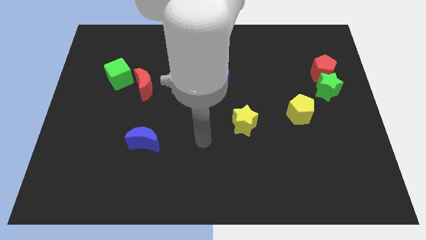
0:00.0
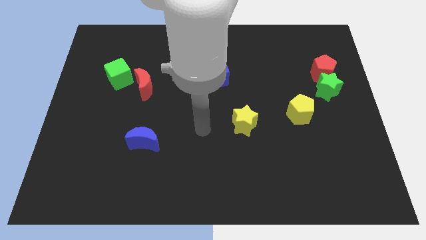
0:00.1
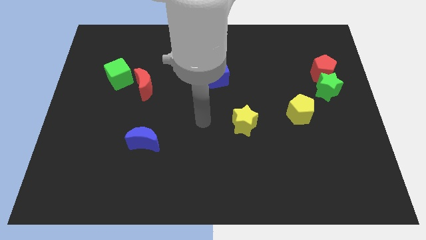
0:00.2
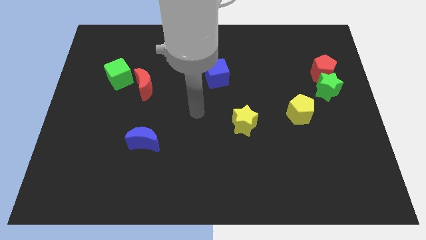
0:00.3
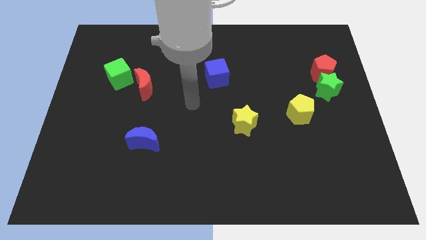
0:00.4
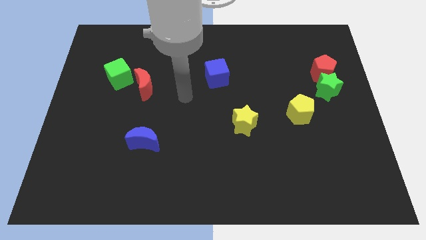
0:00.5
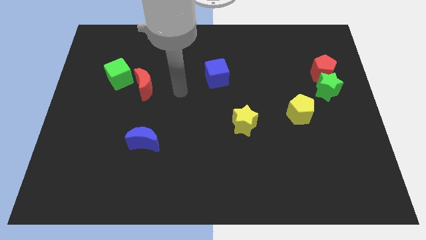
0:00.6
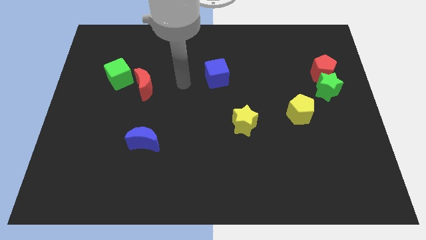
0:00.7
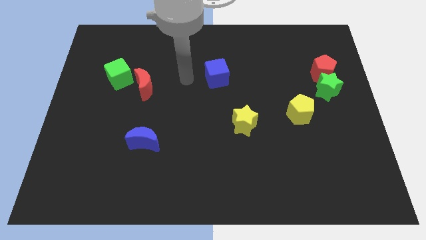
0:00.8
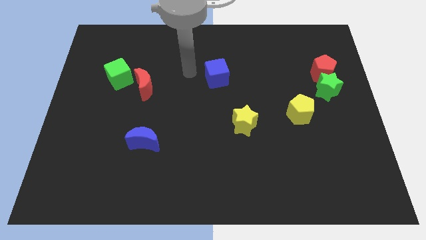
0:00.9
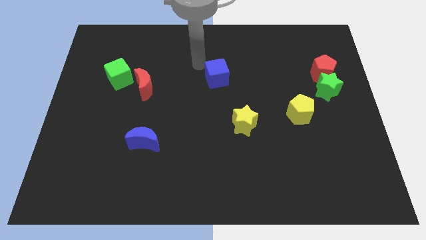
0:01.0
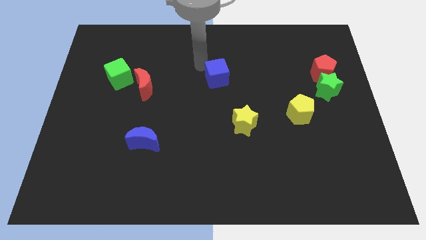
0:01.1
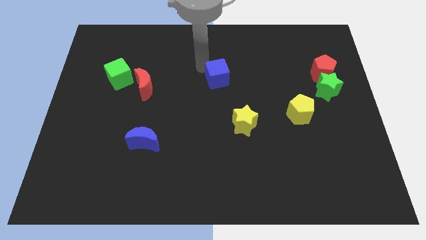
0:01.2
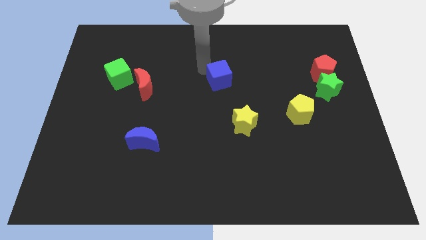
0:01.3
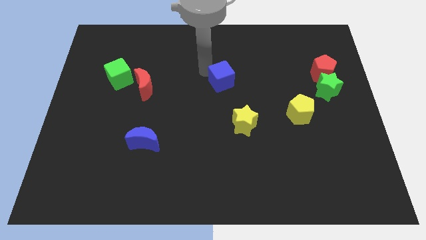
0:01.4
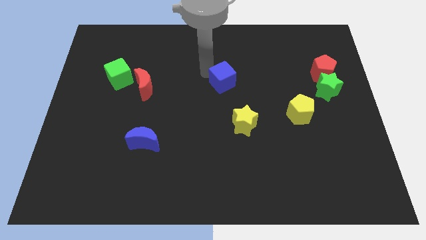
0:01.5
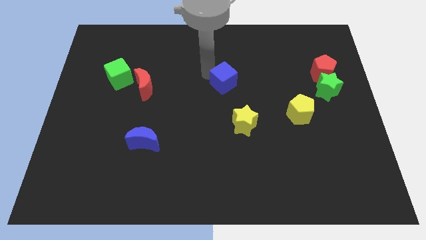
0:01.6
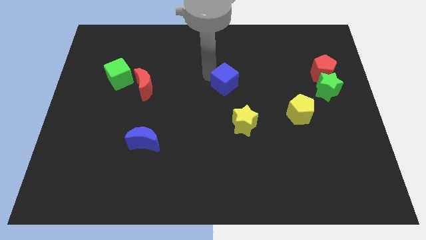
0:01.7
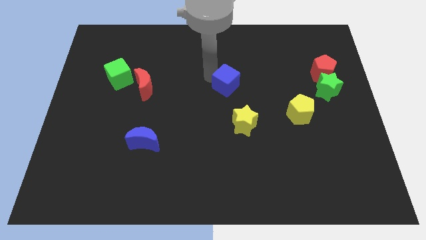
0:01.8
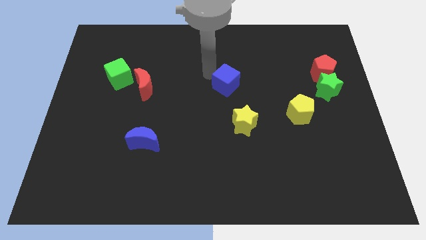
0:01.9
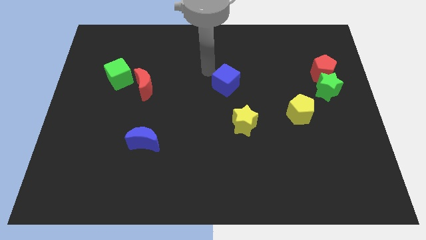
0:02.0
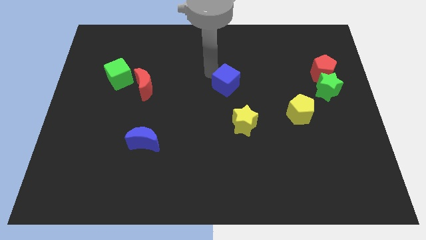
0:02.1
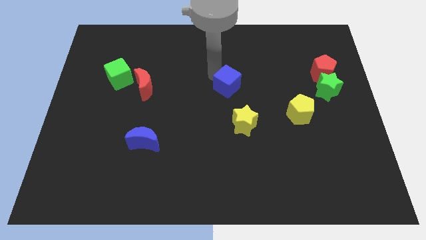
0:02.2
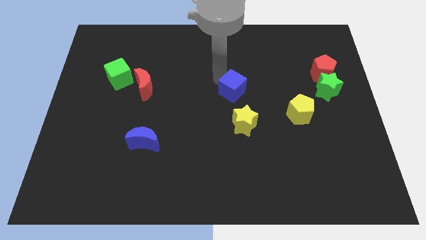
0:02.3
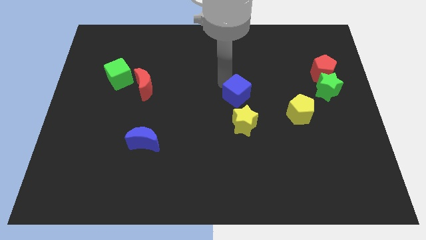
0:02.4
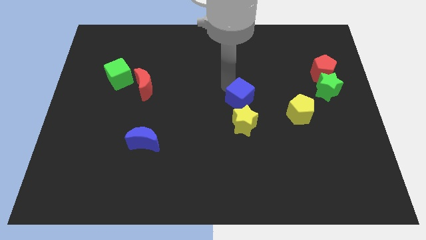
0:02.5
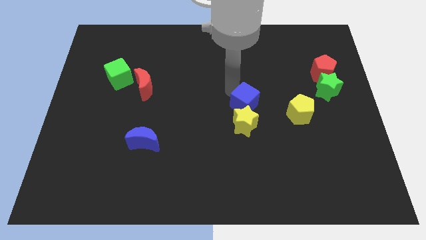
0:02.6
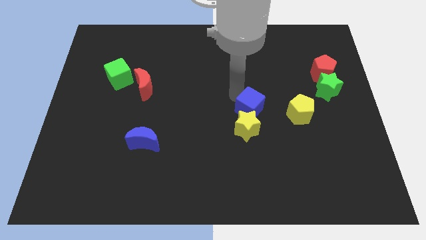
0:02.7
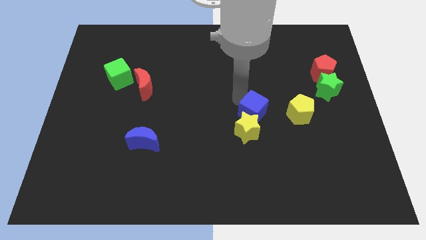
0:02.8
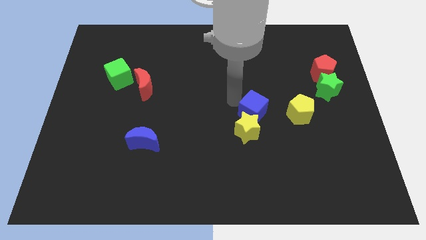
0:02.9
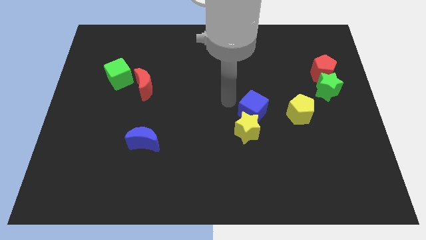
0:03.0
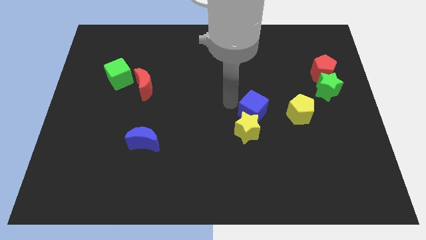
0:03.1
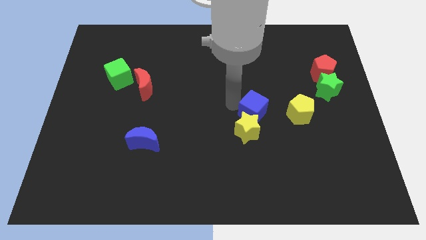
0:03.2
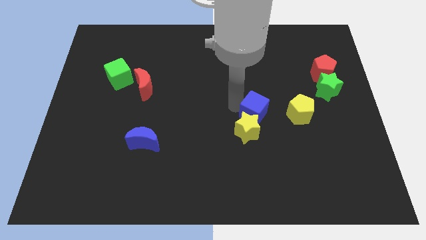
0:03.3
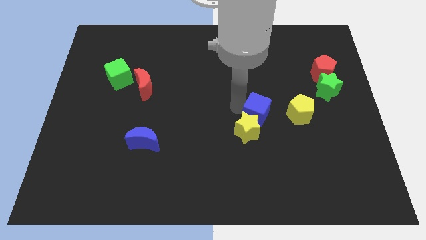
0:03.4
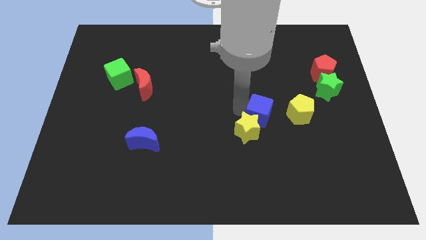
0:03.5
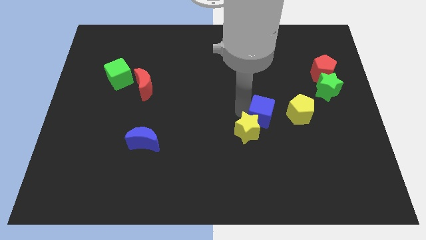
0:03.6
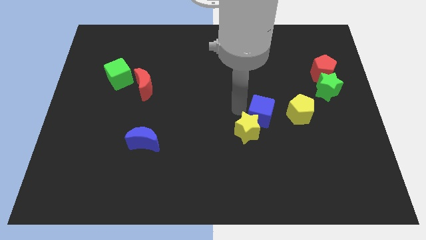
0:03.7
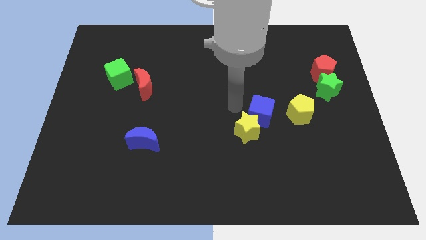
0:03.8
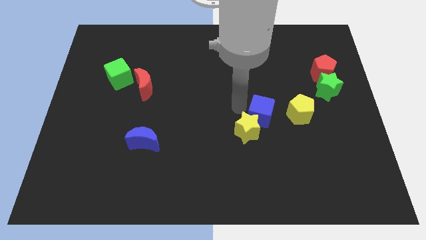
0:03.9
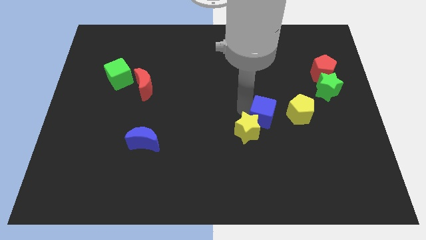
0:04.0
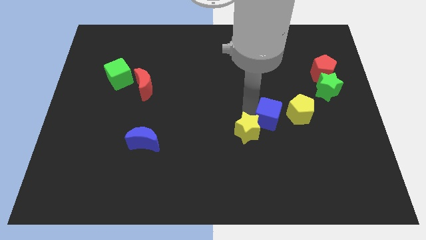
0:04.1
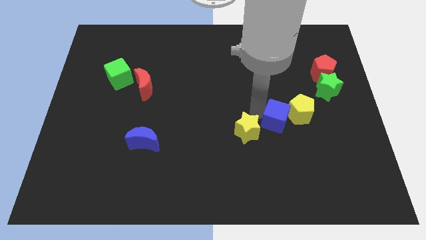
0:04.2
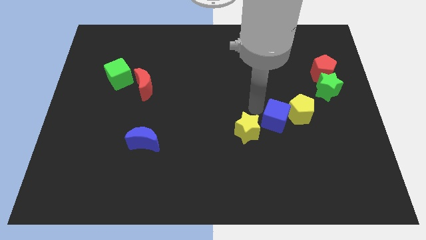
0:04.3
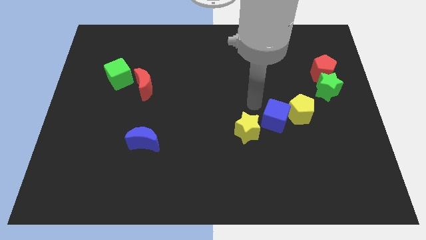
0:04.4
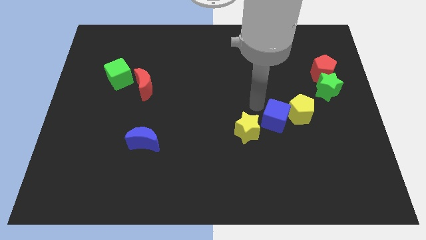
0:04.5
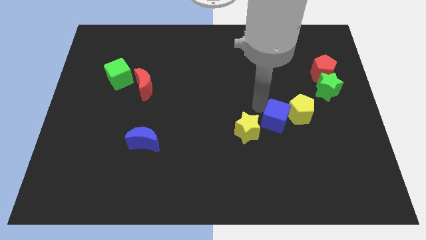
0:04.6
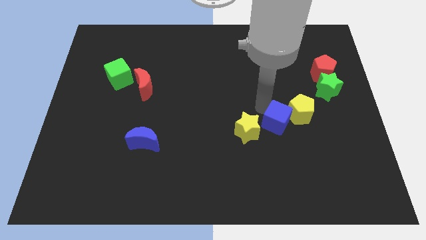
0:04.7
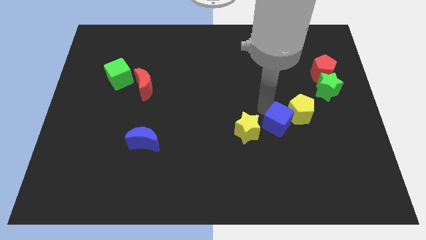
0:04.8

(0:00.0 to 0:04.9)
push the blue cube diagonally downwards and right

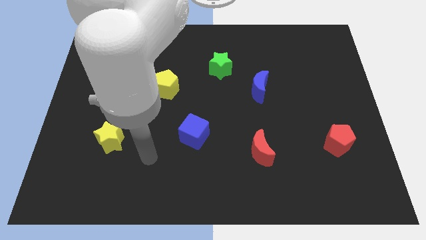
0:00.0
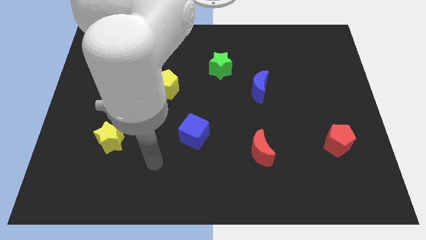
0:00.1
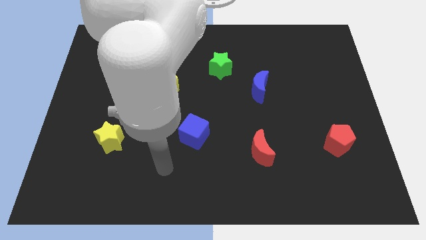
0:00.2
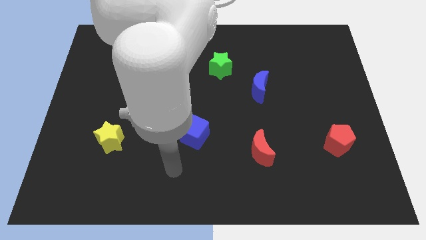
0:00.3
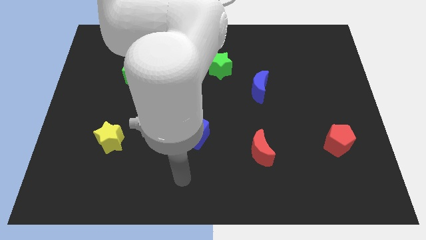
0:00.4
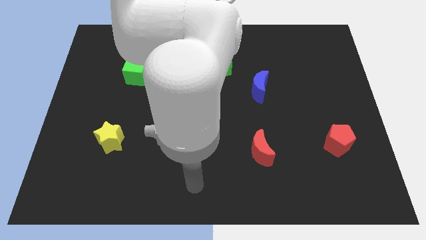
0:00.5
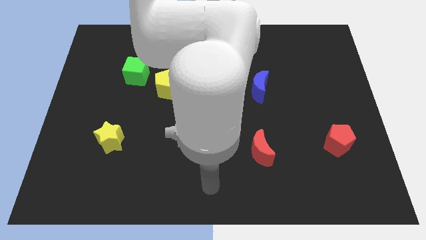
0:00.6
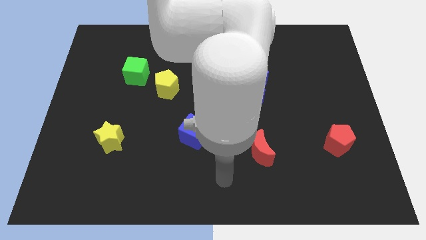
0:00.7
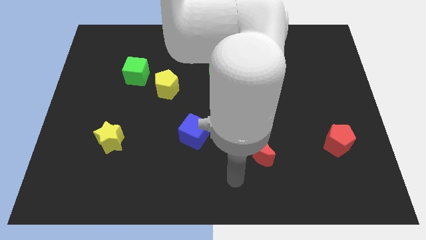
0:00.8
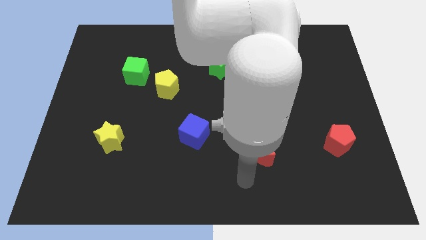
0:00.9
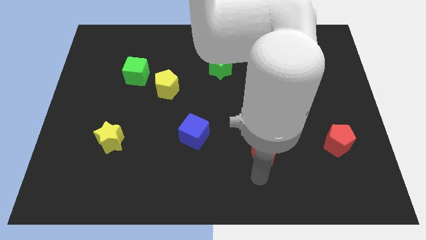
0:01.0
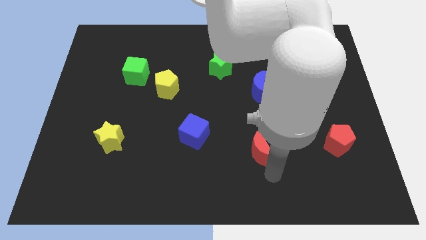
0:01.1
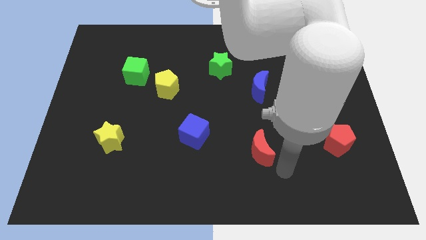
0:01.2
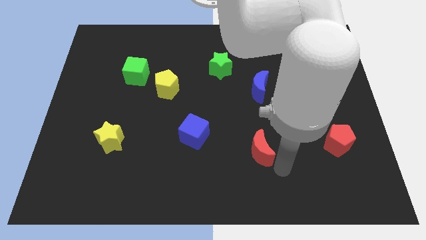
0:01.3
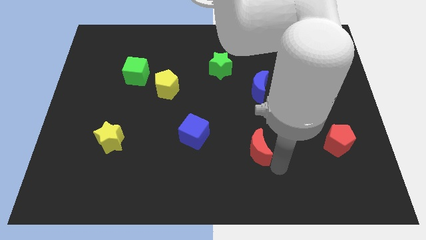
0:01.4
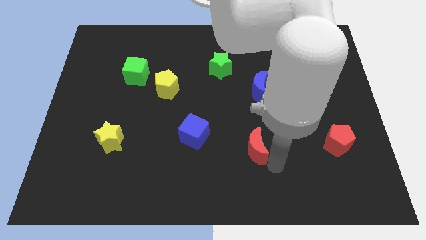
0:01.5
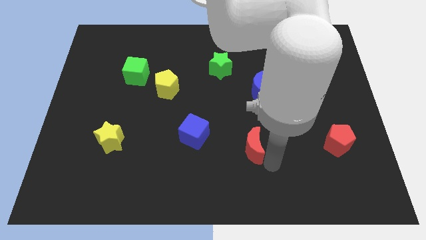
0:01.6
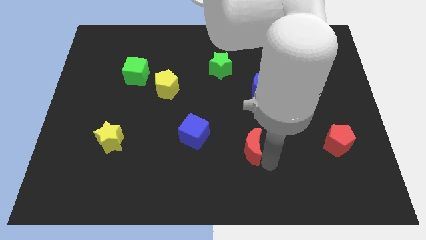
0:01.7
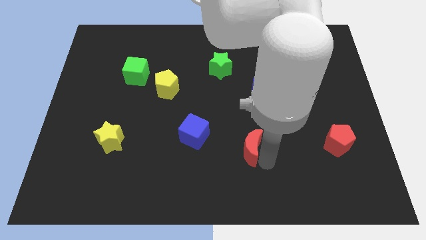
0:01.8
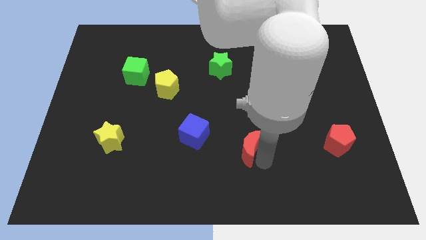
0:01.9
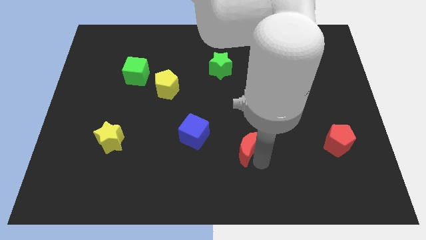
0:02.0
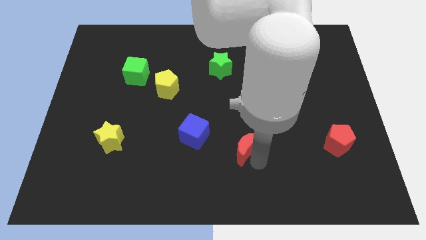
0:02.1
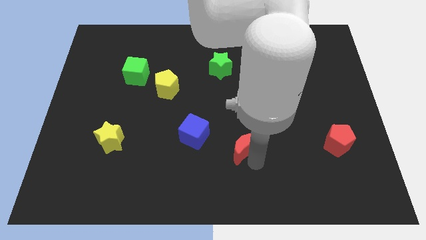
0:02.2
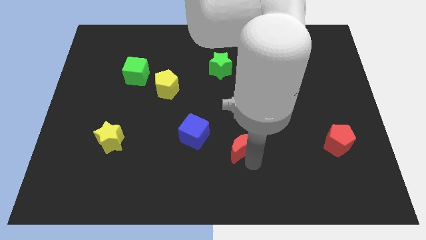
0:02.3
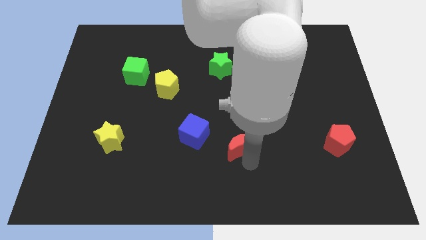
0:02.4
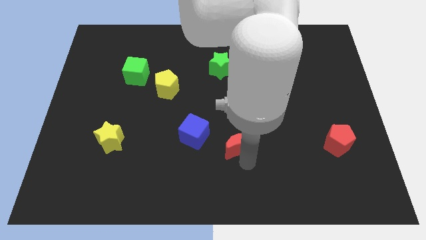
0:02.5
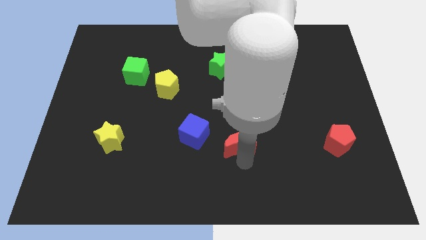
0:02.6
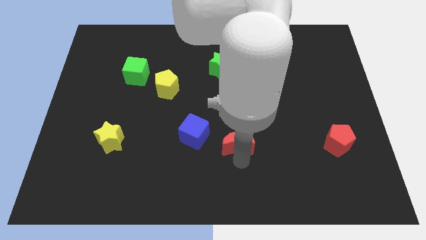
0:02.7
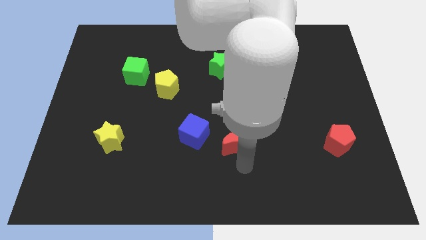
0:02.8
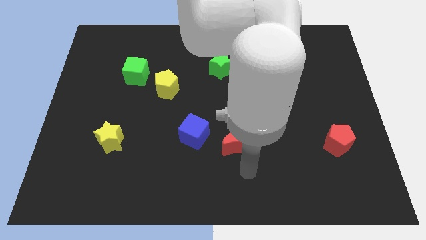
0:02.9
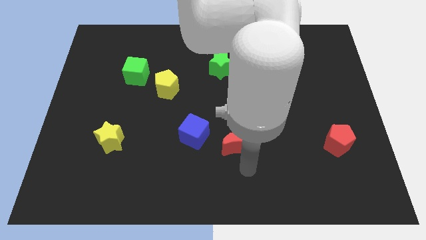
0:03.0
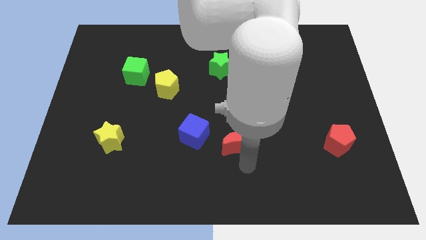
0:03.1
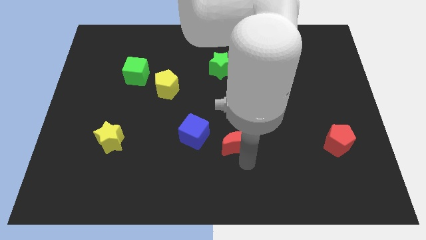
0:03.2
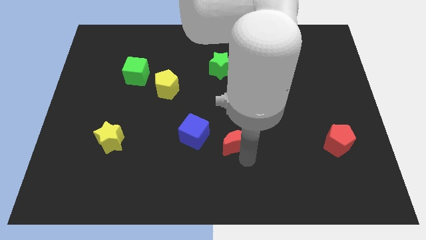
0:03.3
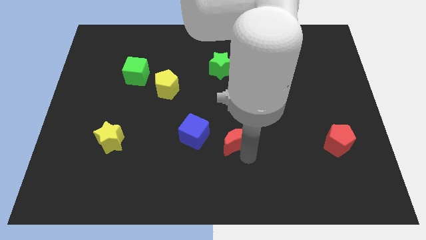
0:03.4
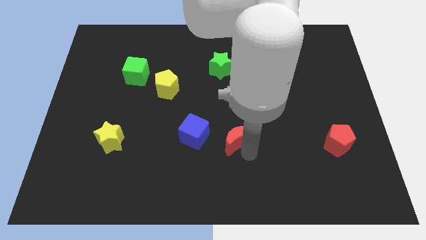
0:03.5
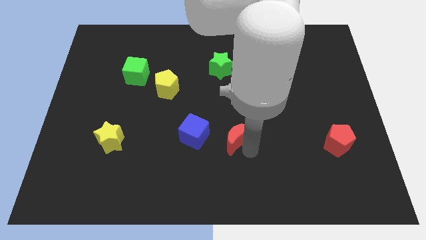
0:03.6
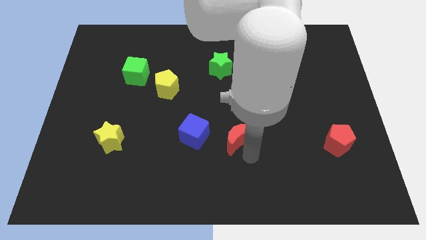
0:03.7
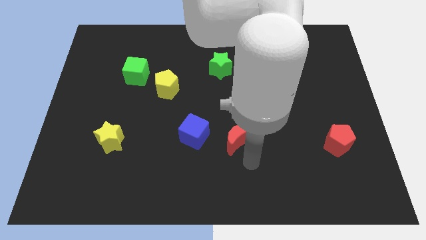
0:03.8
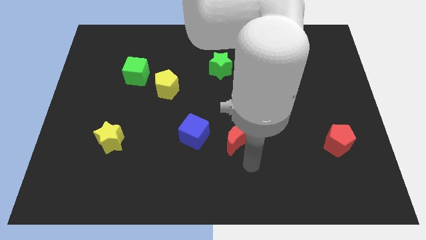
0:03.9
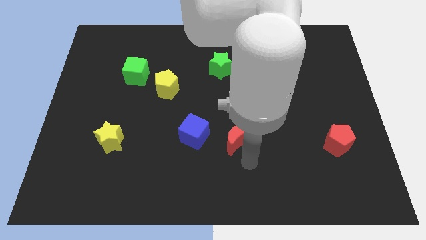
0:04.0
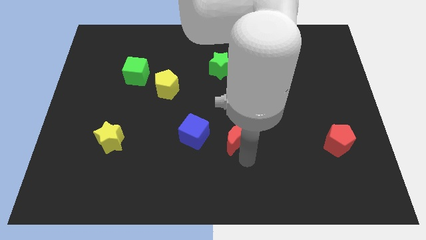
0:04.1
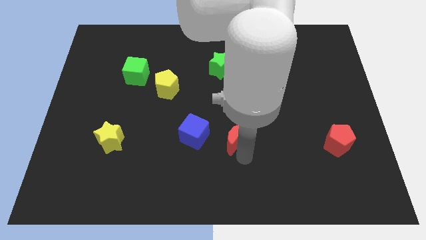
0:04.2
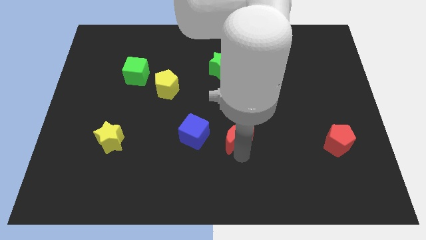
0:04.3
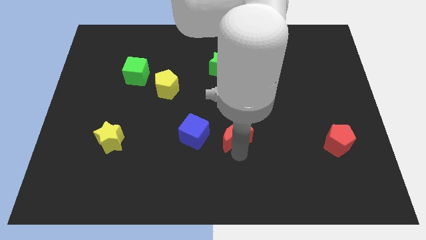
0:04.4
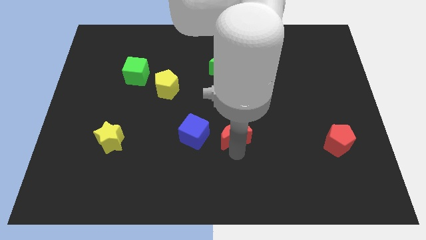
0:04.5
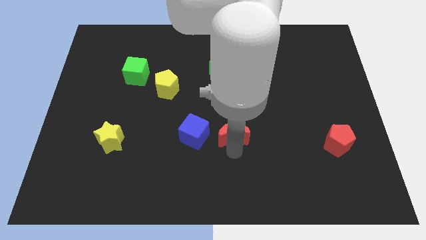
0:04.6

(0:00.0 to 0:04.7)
move the red moon upwards and then left a little bit
